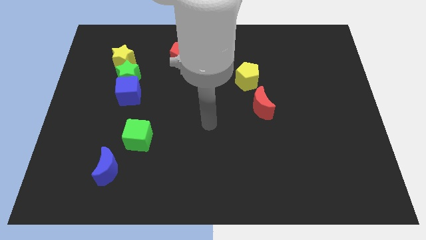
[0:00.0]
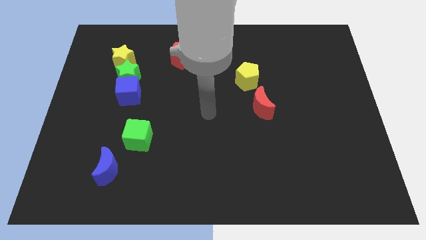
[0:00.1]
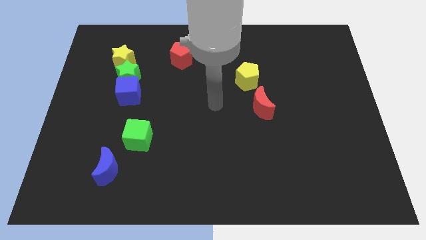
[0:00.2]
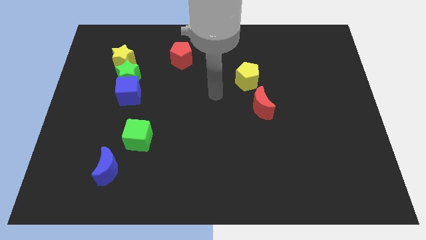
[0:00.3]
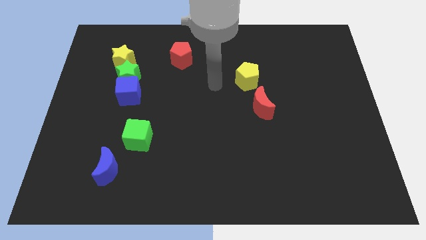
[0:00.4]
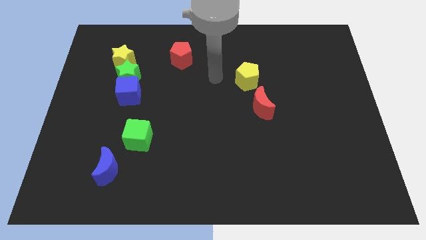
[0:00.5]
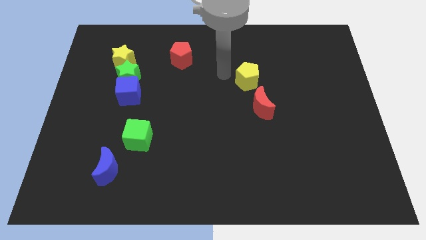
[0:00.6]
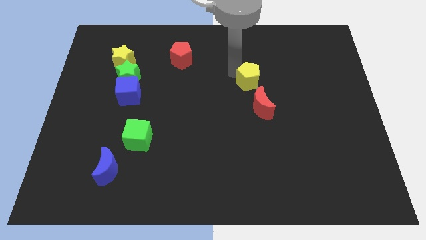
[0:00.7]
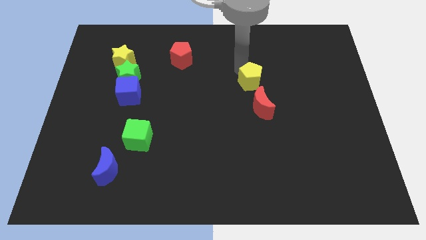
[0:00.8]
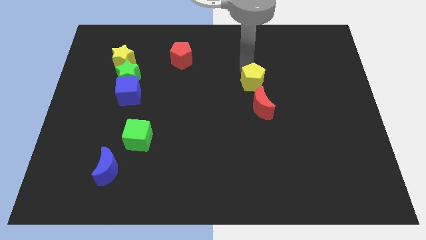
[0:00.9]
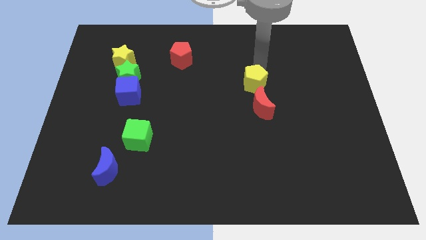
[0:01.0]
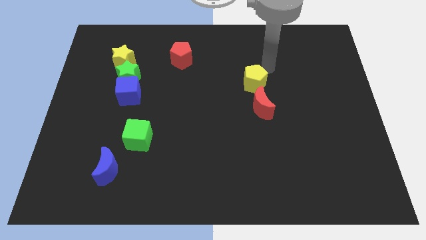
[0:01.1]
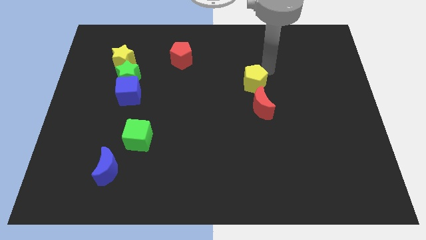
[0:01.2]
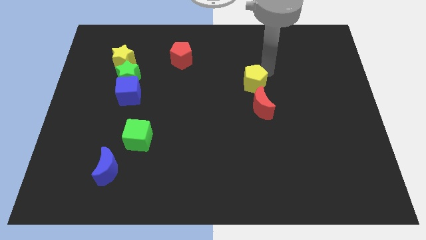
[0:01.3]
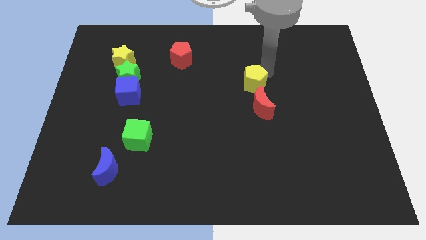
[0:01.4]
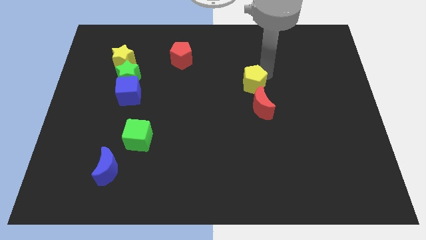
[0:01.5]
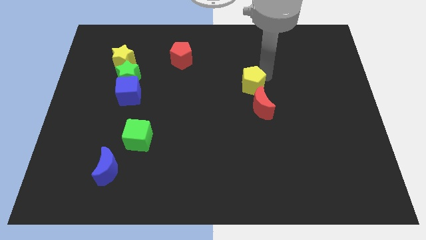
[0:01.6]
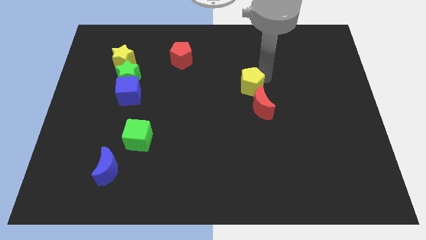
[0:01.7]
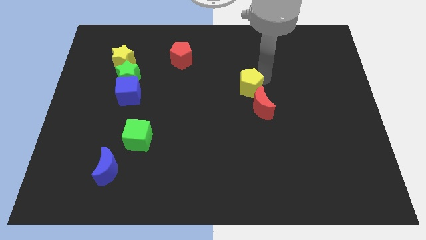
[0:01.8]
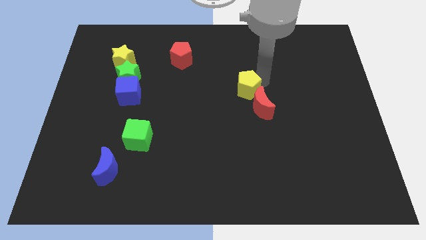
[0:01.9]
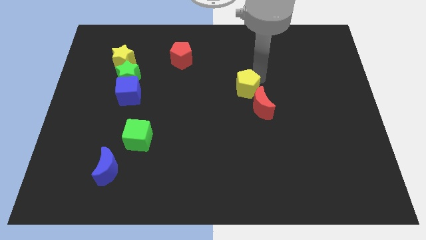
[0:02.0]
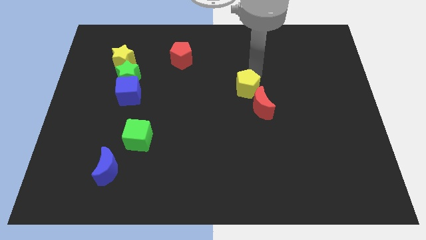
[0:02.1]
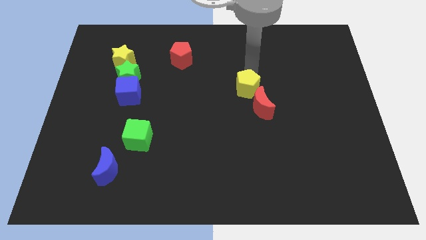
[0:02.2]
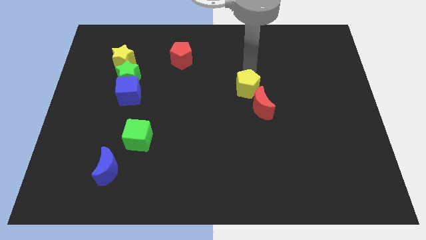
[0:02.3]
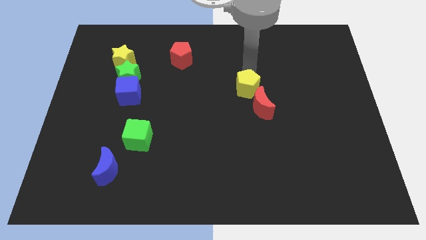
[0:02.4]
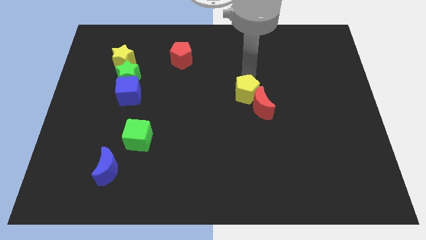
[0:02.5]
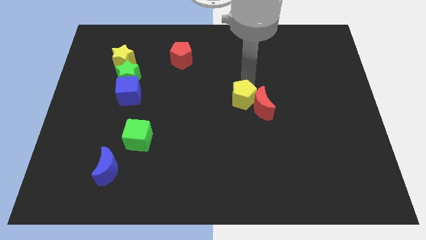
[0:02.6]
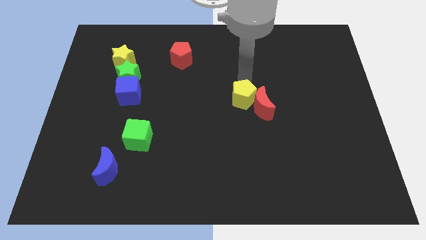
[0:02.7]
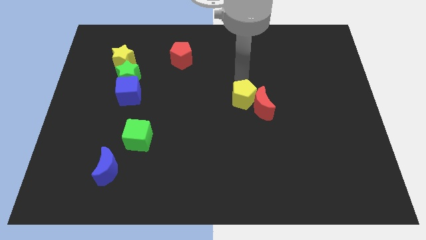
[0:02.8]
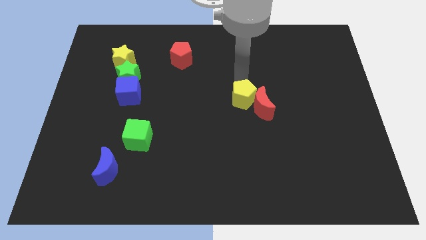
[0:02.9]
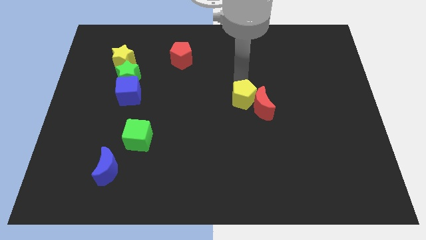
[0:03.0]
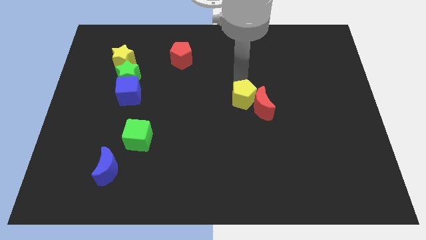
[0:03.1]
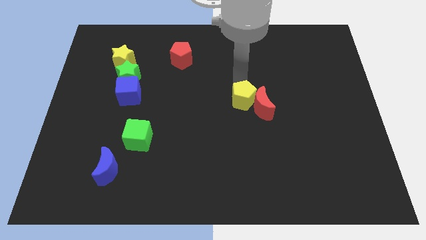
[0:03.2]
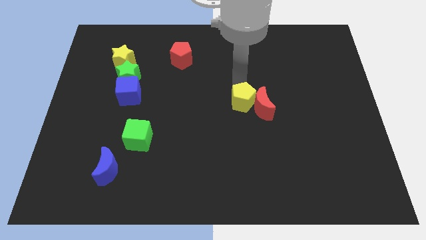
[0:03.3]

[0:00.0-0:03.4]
slightly slide the yellow pentagon downwards

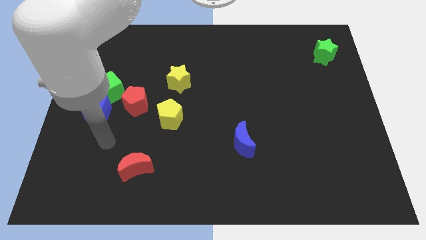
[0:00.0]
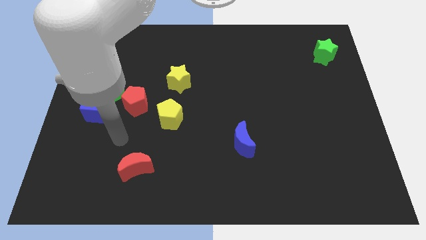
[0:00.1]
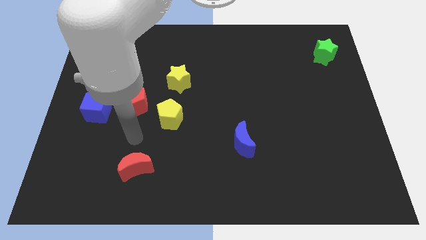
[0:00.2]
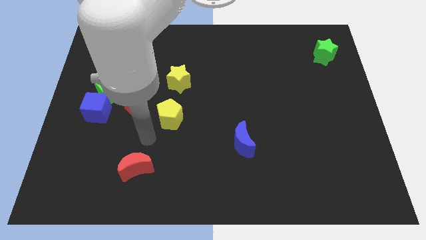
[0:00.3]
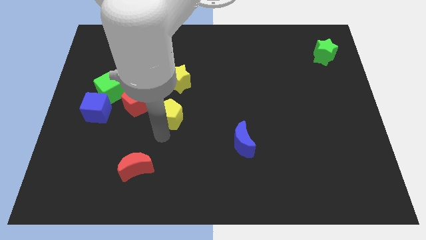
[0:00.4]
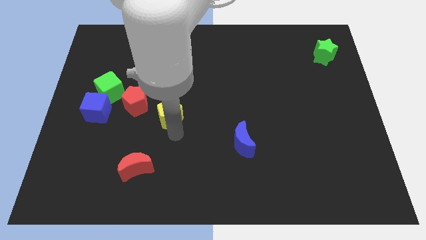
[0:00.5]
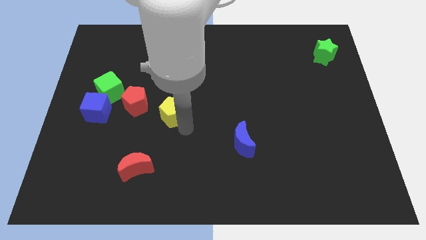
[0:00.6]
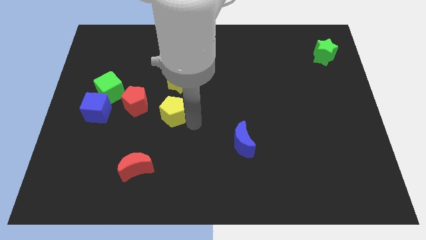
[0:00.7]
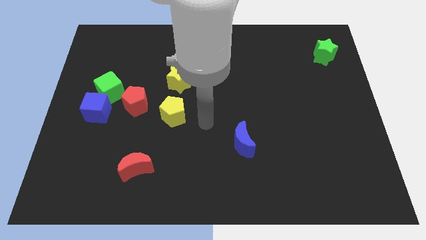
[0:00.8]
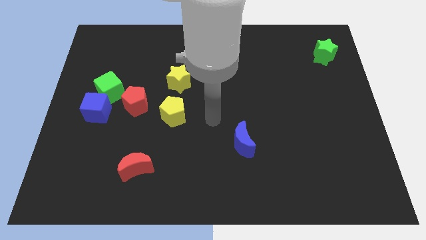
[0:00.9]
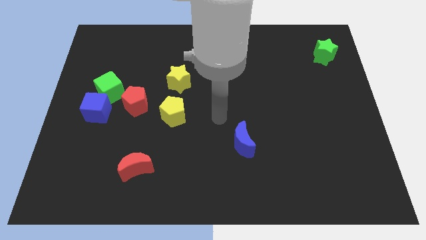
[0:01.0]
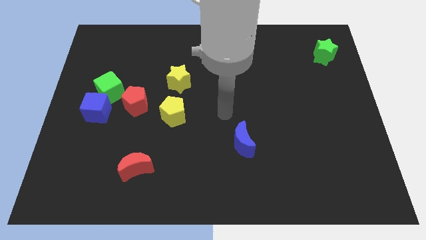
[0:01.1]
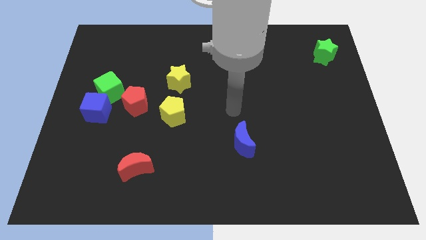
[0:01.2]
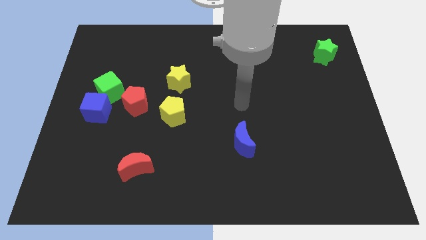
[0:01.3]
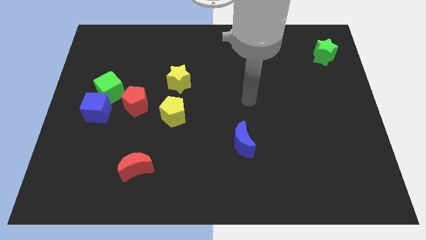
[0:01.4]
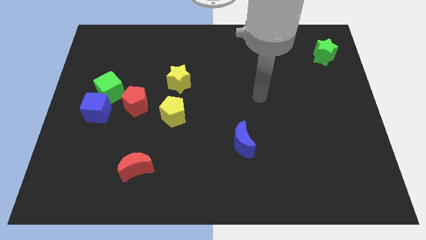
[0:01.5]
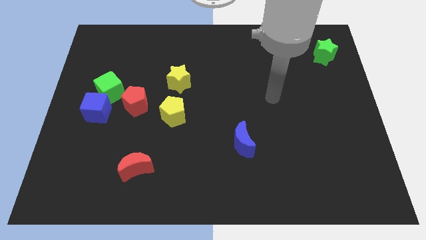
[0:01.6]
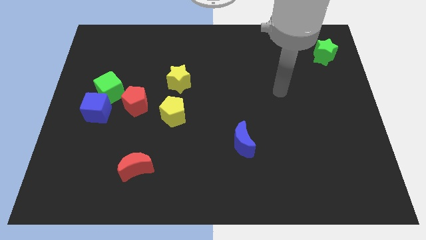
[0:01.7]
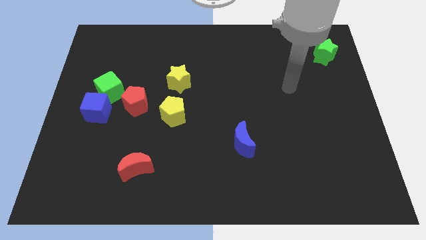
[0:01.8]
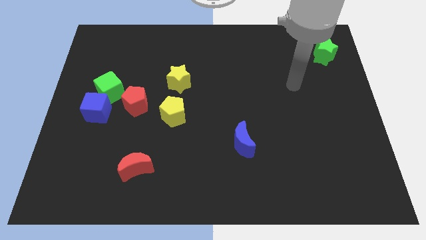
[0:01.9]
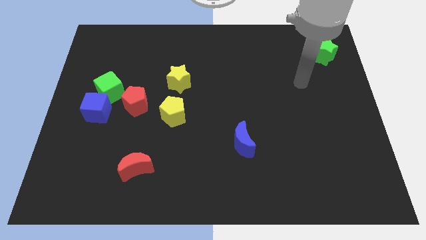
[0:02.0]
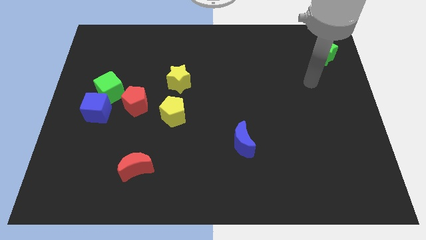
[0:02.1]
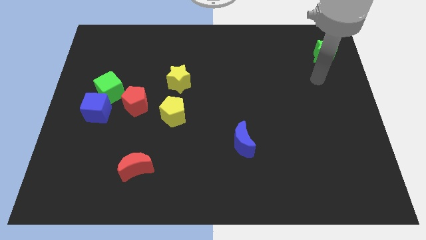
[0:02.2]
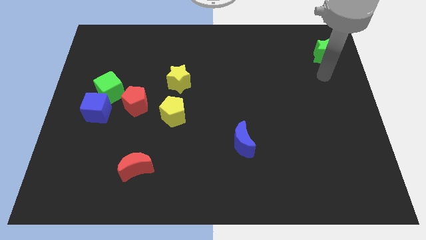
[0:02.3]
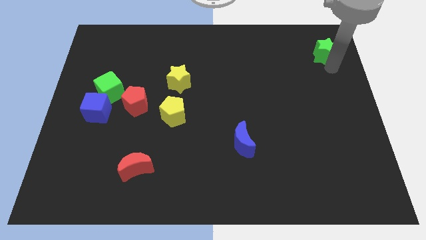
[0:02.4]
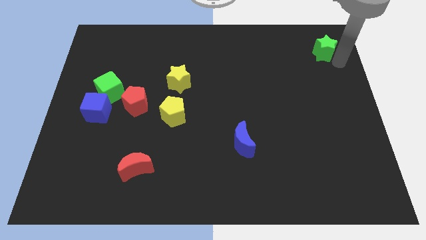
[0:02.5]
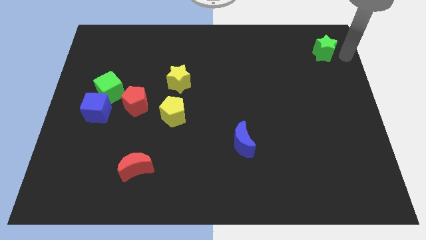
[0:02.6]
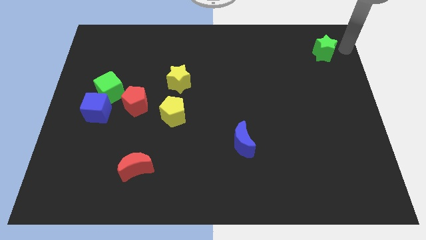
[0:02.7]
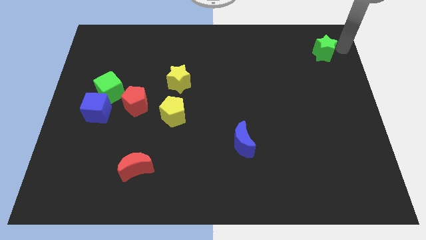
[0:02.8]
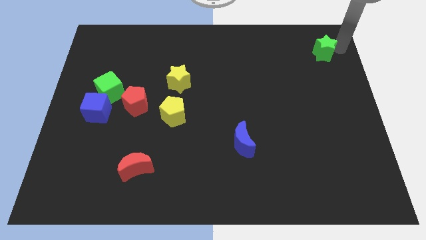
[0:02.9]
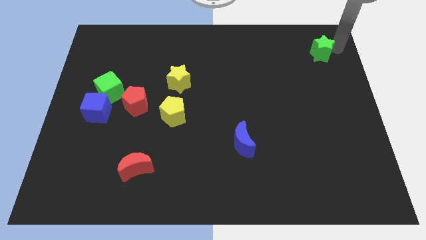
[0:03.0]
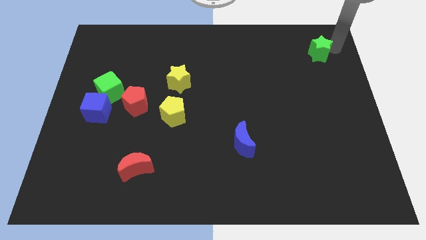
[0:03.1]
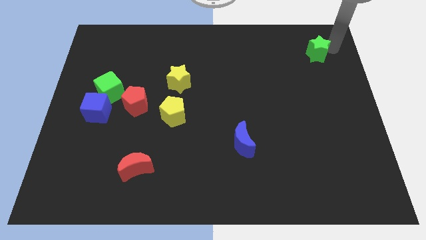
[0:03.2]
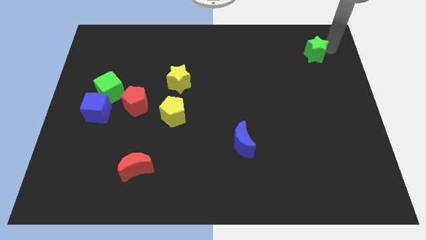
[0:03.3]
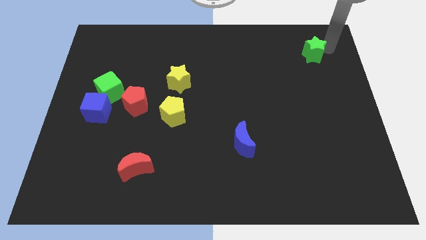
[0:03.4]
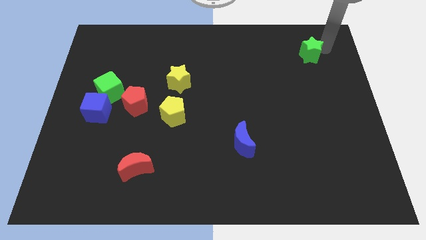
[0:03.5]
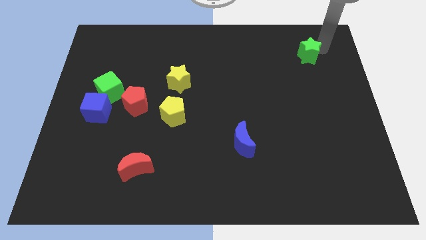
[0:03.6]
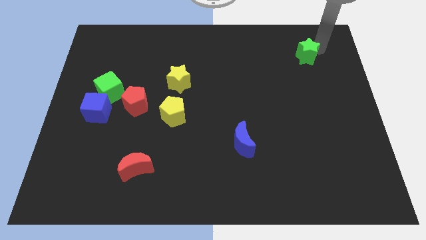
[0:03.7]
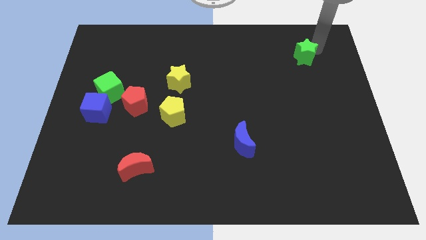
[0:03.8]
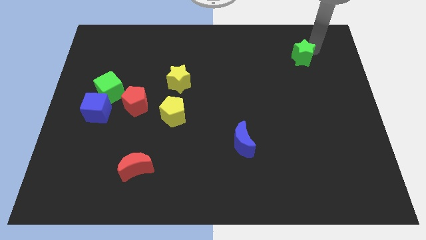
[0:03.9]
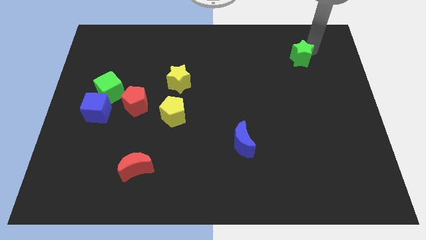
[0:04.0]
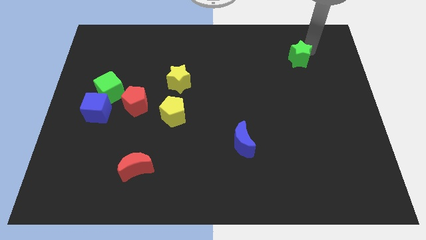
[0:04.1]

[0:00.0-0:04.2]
move the green star to the left a bit

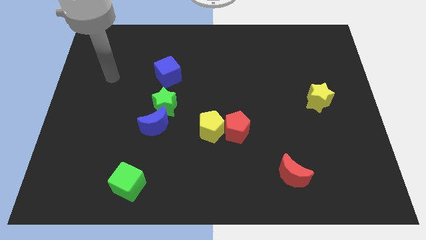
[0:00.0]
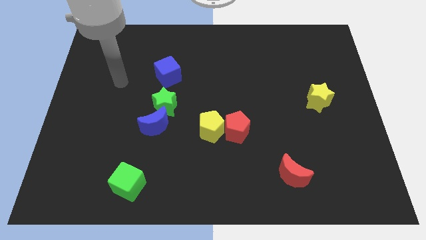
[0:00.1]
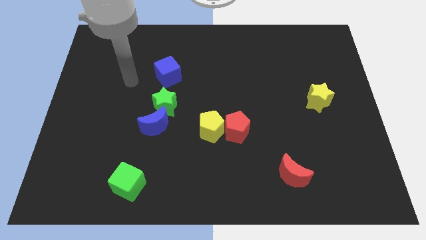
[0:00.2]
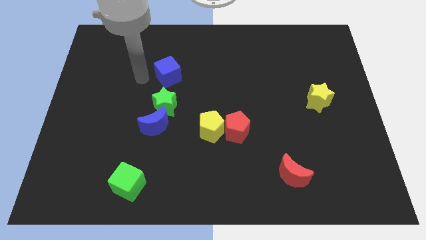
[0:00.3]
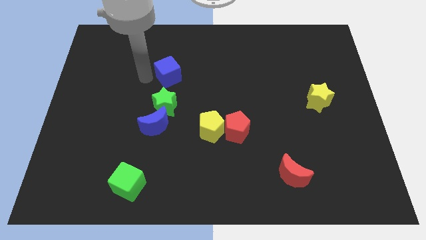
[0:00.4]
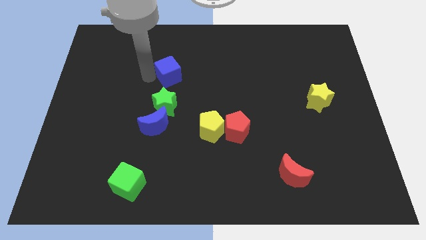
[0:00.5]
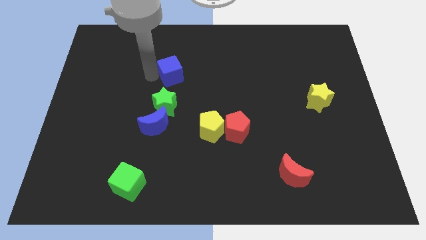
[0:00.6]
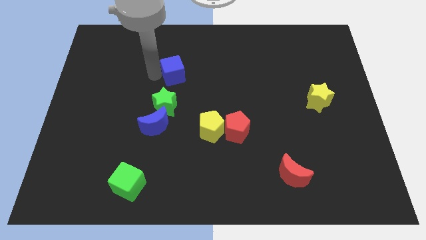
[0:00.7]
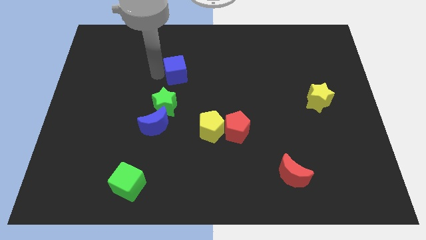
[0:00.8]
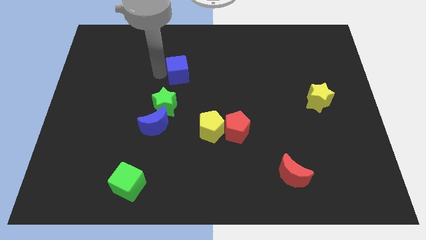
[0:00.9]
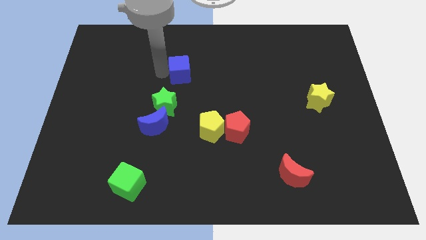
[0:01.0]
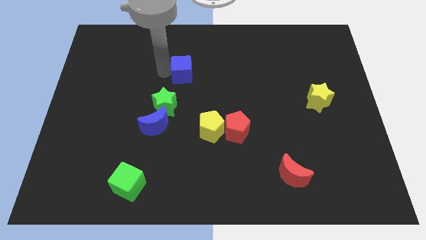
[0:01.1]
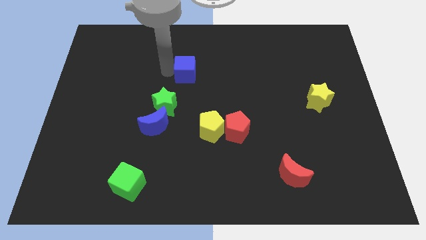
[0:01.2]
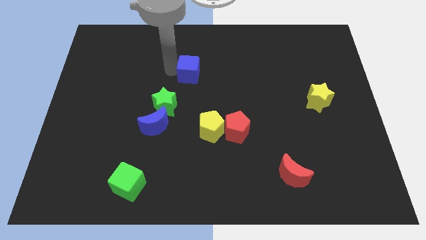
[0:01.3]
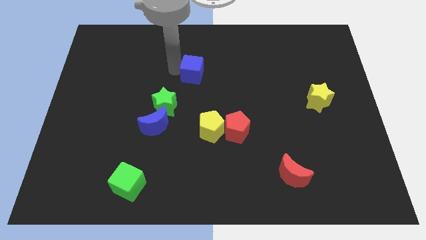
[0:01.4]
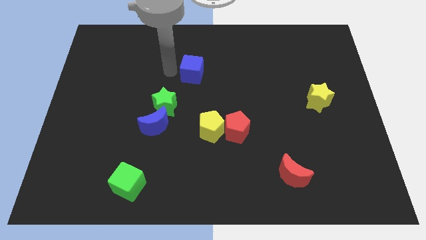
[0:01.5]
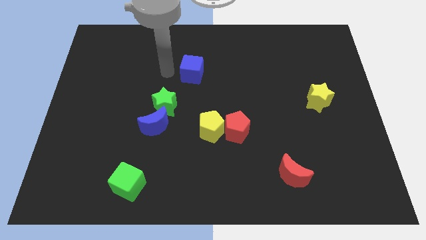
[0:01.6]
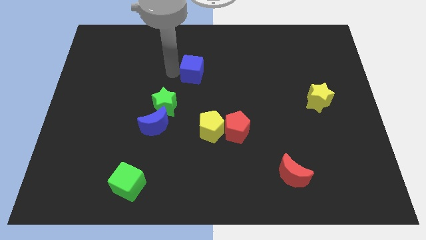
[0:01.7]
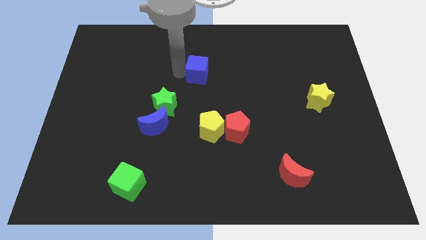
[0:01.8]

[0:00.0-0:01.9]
slightly move the blue cube right
